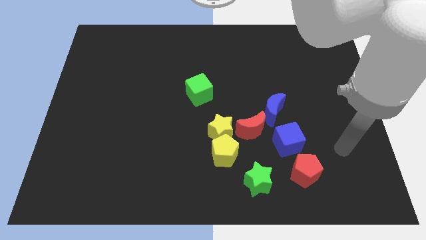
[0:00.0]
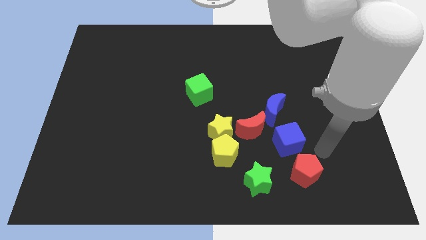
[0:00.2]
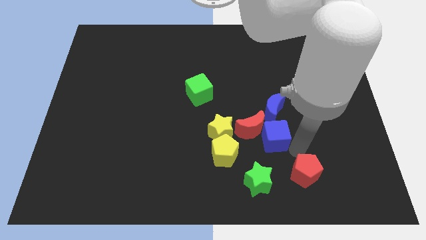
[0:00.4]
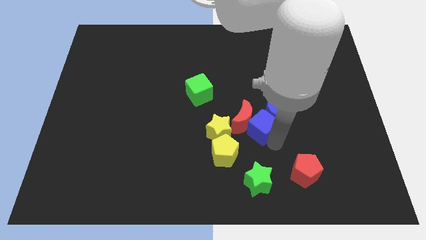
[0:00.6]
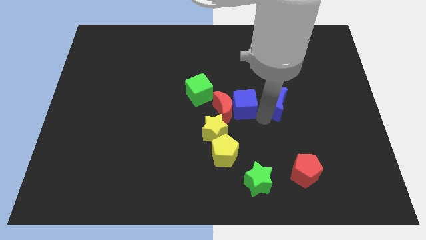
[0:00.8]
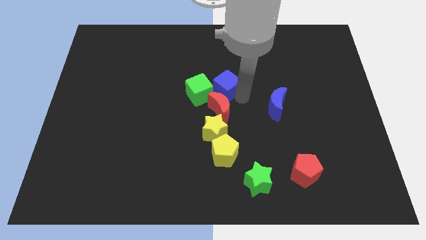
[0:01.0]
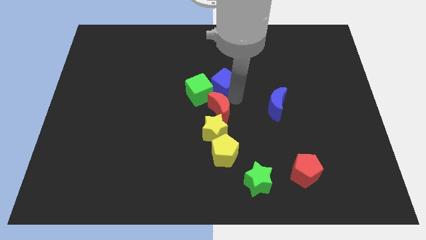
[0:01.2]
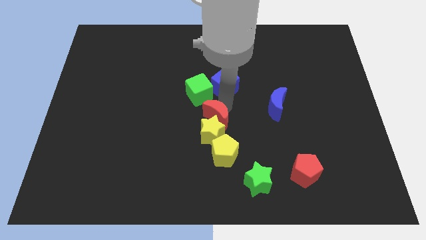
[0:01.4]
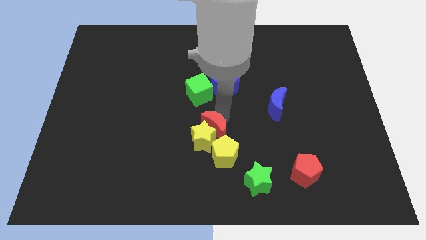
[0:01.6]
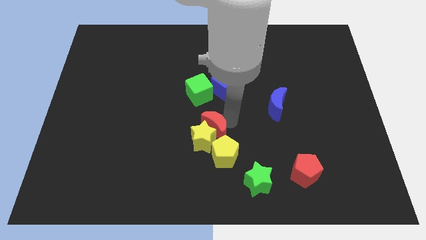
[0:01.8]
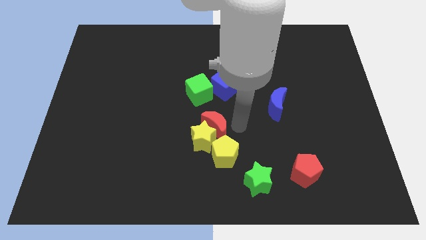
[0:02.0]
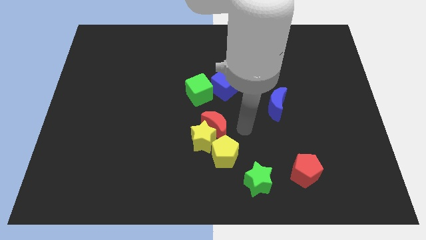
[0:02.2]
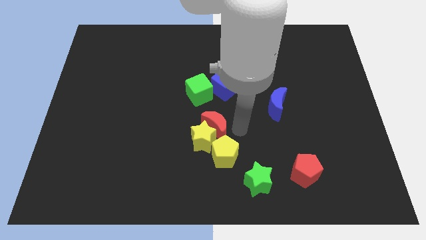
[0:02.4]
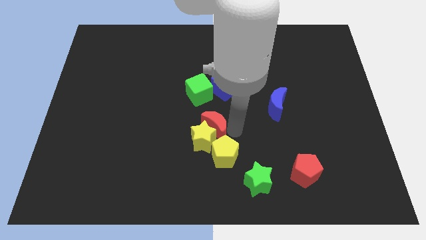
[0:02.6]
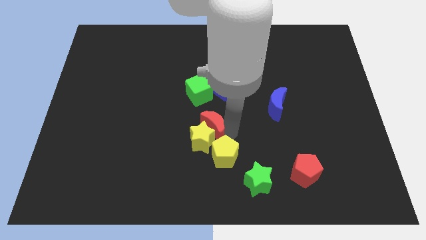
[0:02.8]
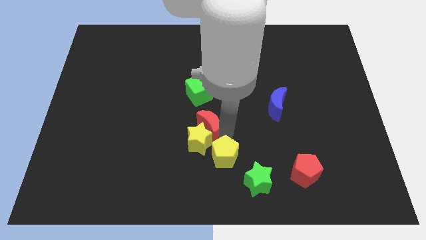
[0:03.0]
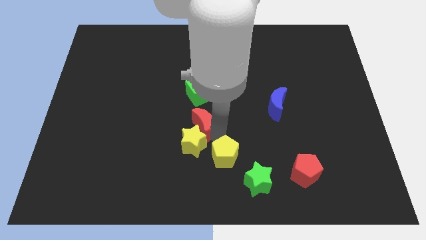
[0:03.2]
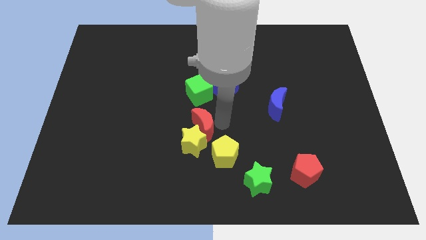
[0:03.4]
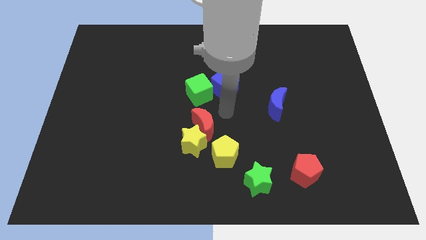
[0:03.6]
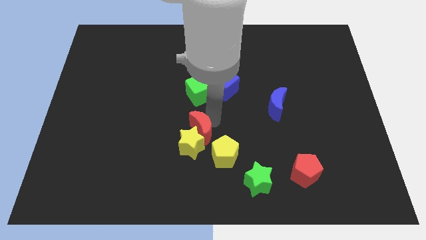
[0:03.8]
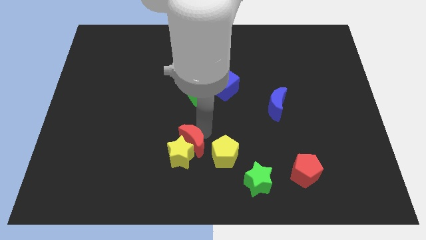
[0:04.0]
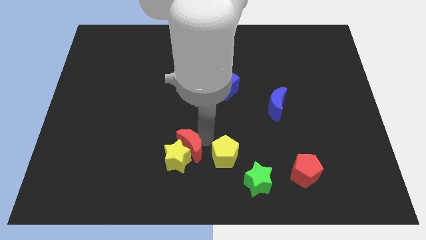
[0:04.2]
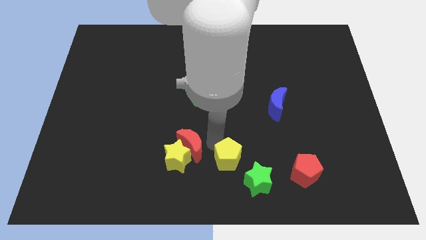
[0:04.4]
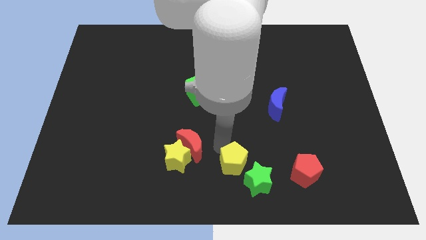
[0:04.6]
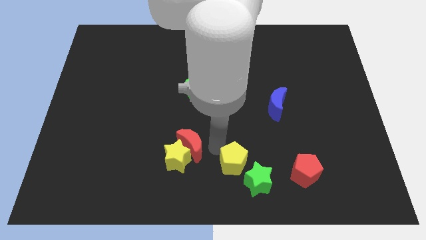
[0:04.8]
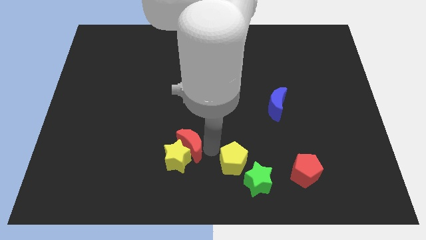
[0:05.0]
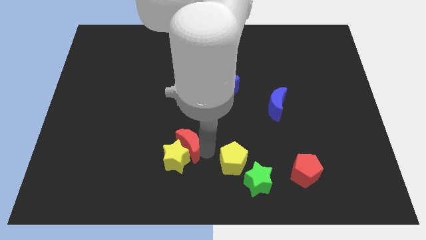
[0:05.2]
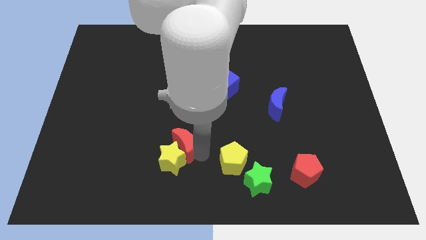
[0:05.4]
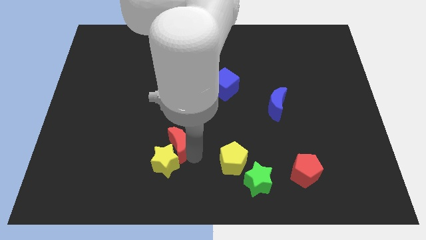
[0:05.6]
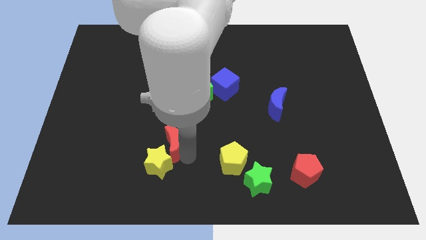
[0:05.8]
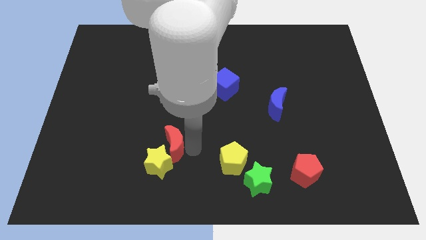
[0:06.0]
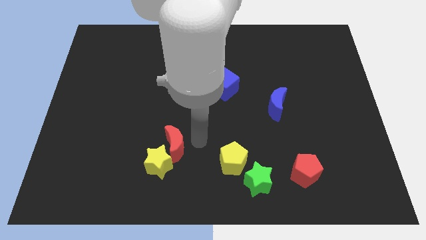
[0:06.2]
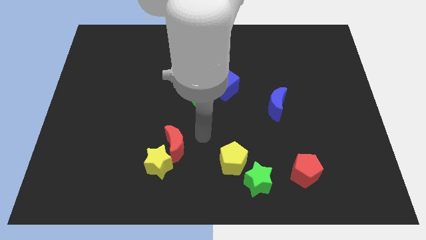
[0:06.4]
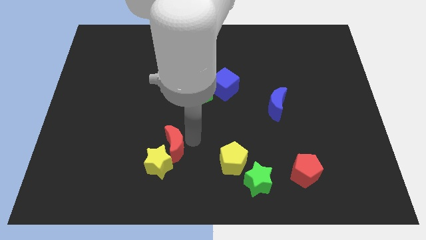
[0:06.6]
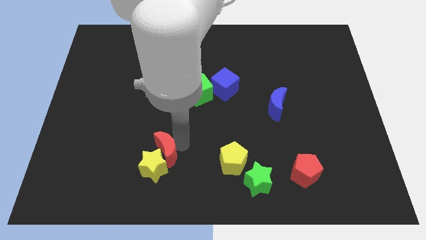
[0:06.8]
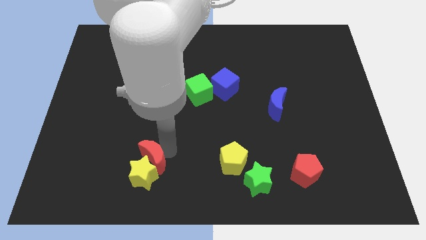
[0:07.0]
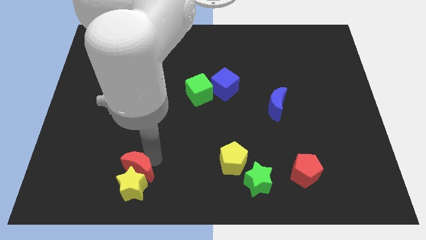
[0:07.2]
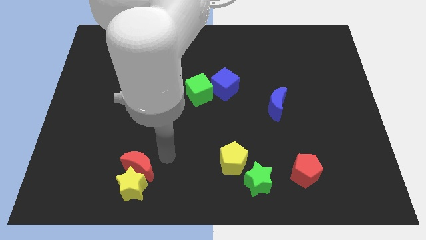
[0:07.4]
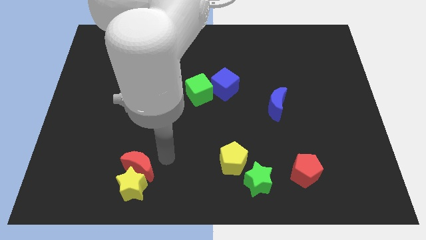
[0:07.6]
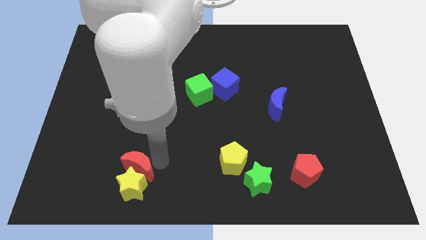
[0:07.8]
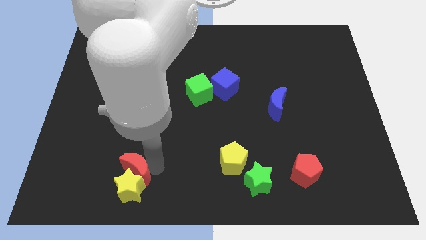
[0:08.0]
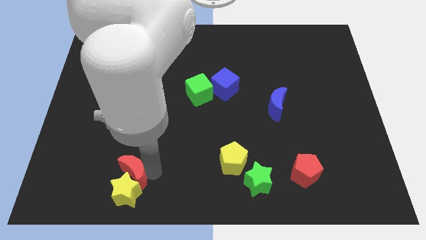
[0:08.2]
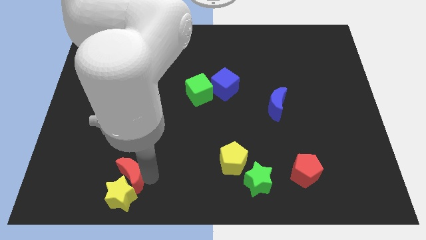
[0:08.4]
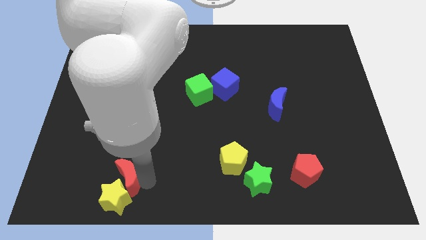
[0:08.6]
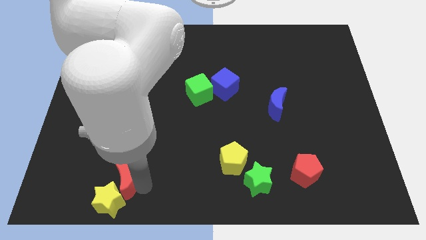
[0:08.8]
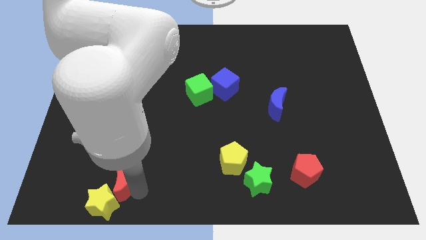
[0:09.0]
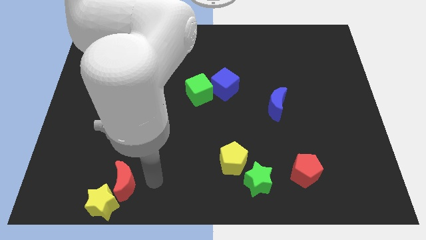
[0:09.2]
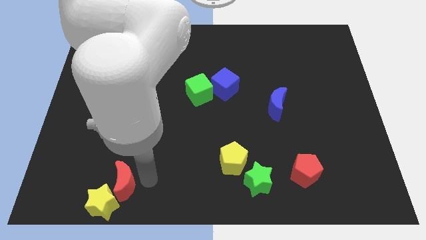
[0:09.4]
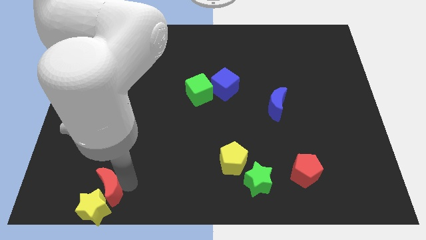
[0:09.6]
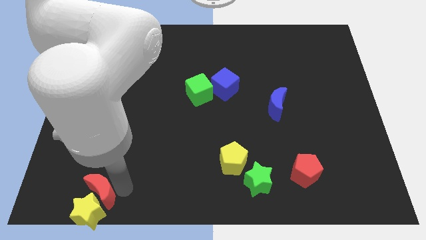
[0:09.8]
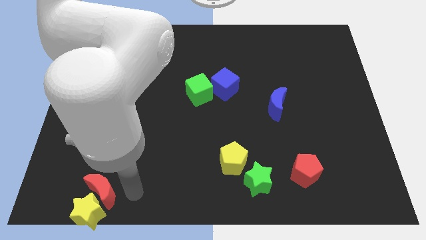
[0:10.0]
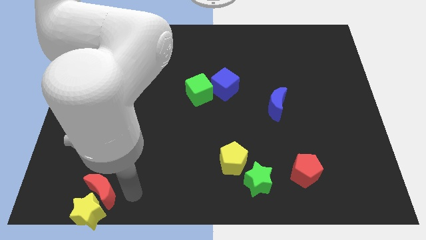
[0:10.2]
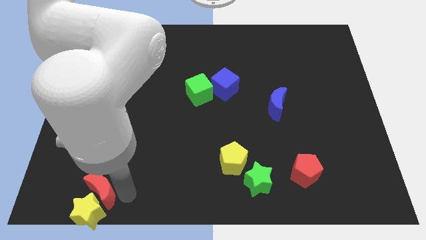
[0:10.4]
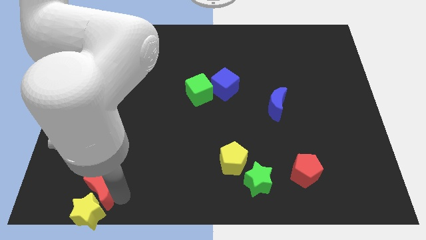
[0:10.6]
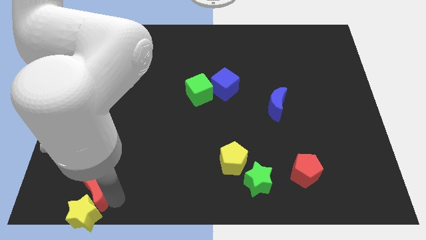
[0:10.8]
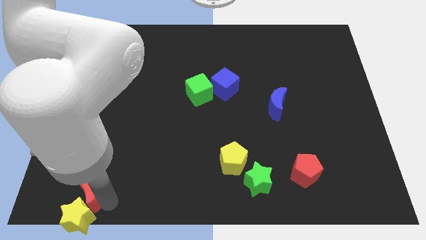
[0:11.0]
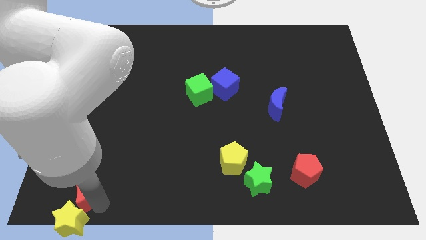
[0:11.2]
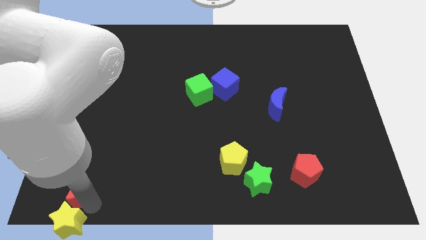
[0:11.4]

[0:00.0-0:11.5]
push the red moon to the bottom left of the board

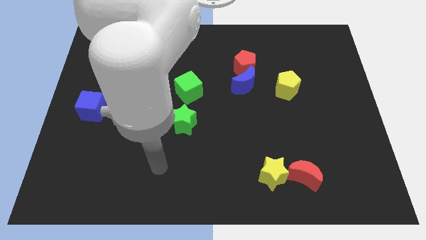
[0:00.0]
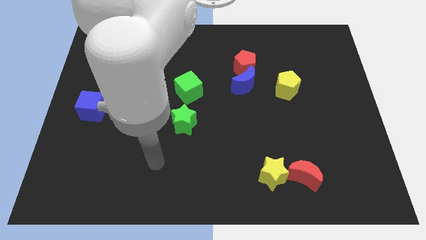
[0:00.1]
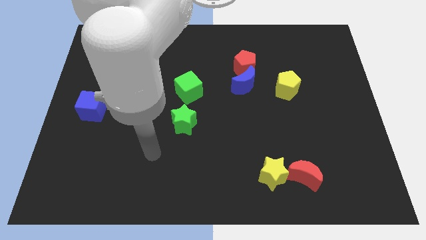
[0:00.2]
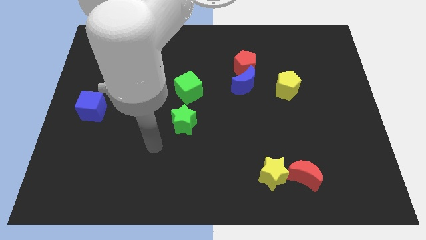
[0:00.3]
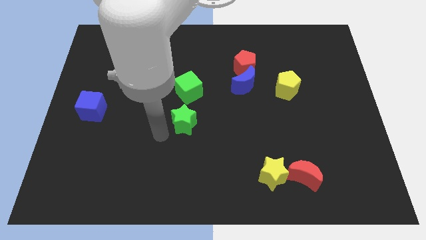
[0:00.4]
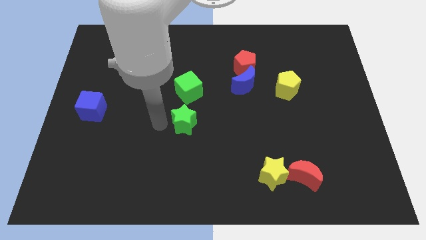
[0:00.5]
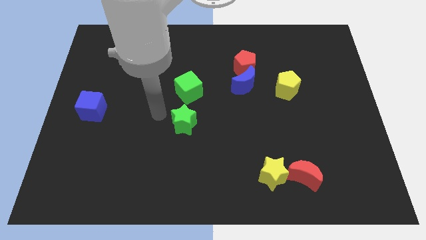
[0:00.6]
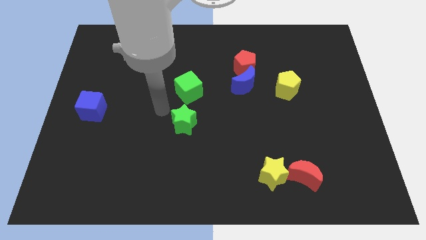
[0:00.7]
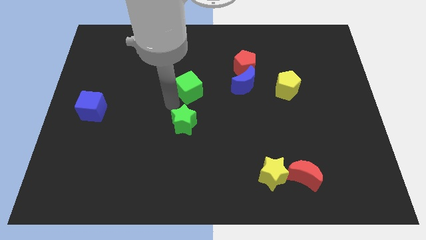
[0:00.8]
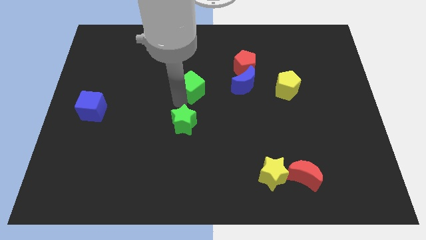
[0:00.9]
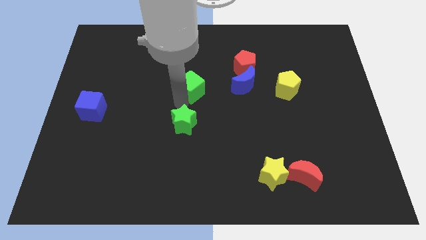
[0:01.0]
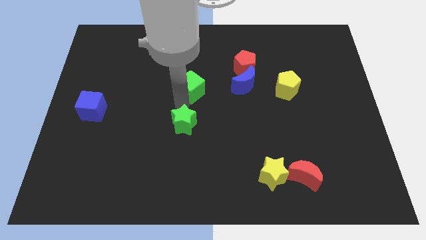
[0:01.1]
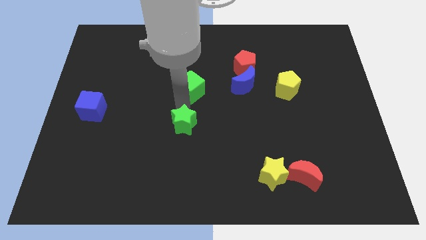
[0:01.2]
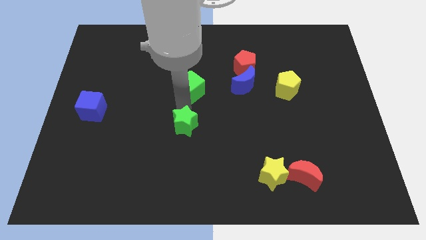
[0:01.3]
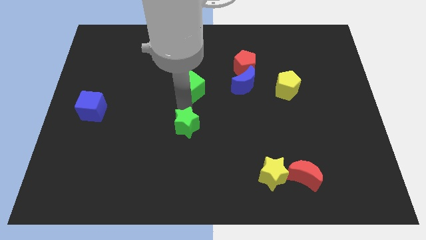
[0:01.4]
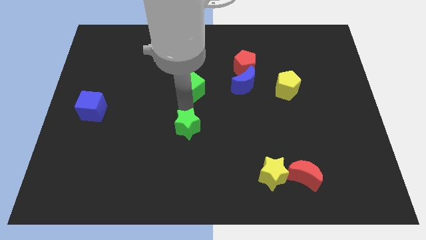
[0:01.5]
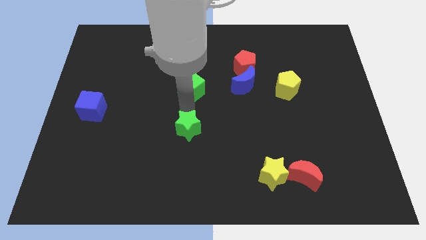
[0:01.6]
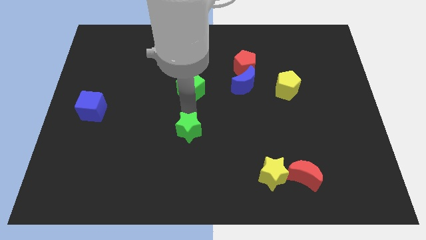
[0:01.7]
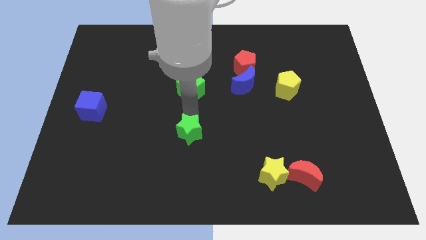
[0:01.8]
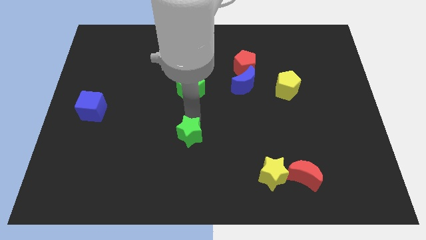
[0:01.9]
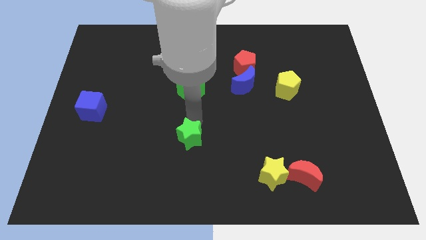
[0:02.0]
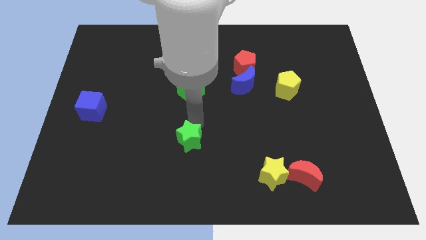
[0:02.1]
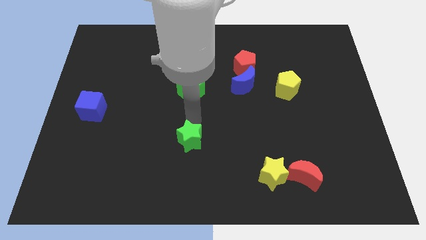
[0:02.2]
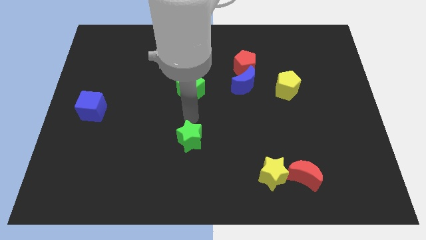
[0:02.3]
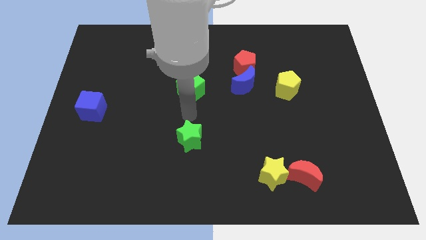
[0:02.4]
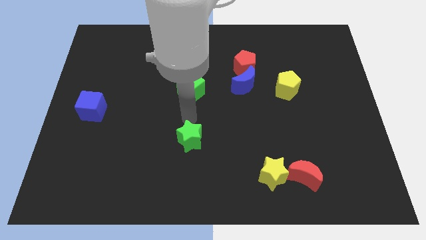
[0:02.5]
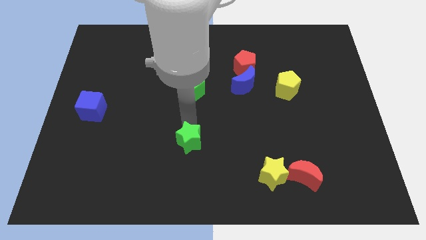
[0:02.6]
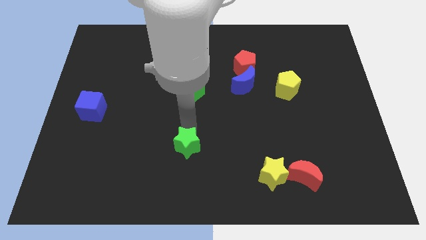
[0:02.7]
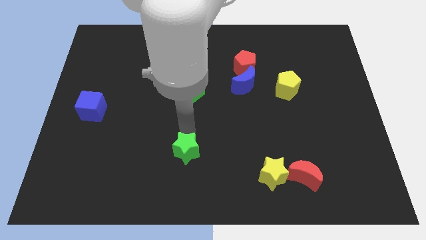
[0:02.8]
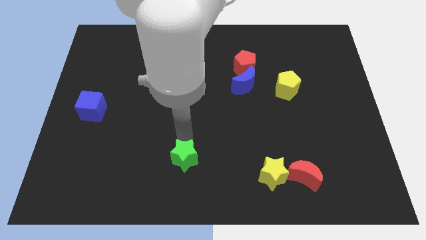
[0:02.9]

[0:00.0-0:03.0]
move the green star to the bottom
